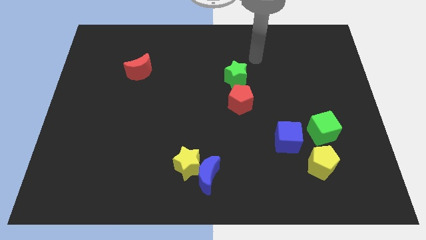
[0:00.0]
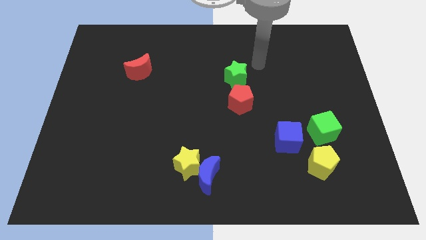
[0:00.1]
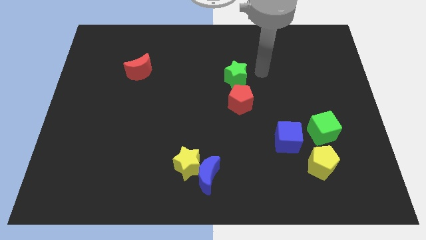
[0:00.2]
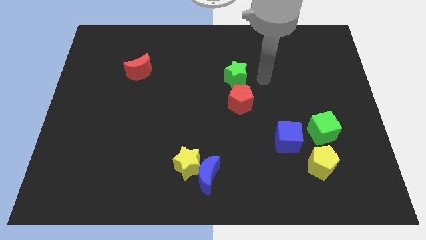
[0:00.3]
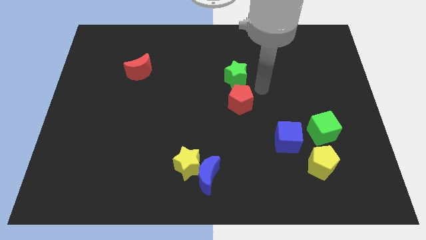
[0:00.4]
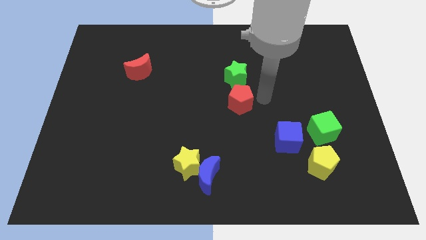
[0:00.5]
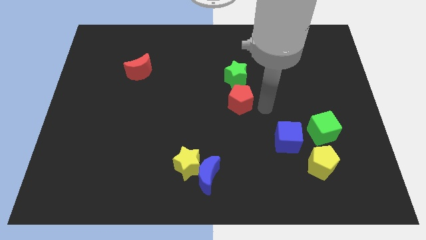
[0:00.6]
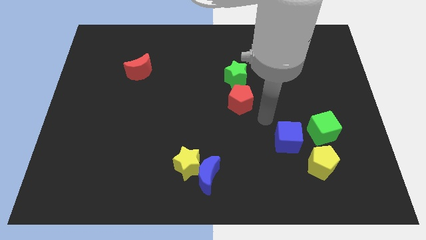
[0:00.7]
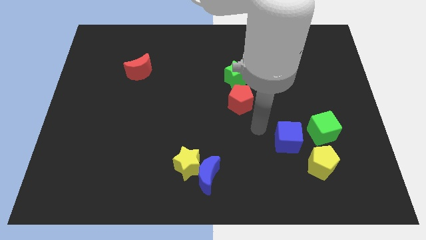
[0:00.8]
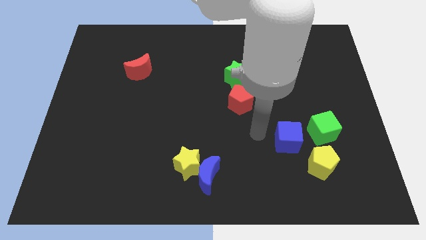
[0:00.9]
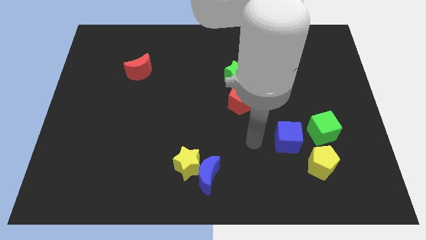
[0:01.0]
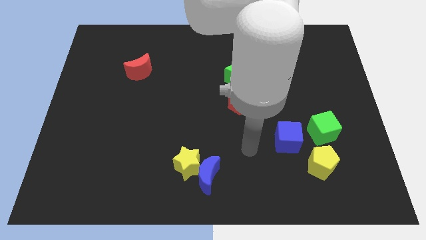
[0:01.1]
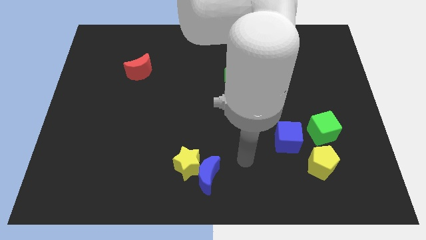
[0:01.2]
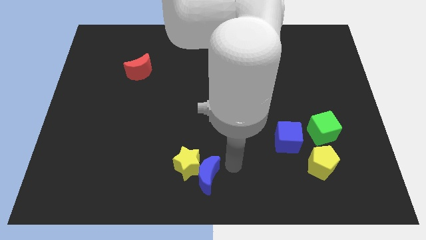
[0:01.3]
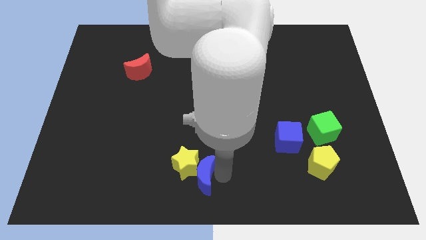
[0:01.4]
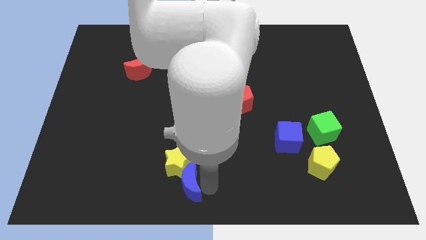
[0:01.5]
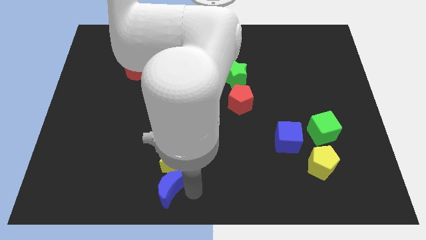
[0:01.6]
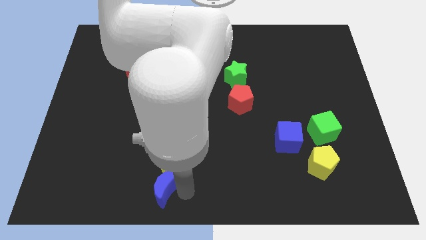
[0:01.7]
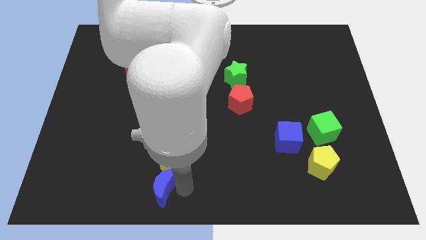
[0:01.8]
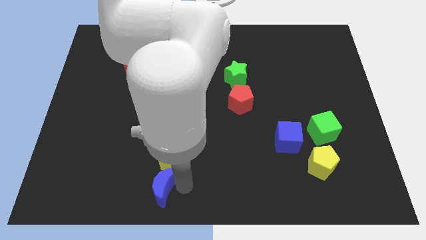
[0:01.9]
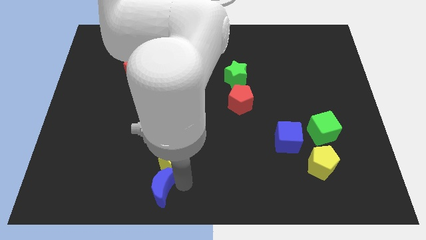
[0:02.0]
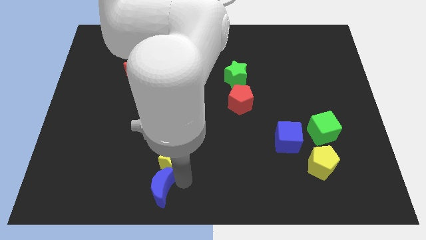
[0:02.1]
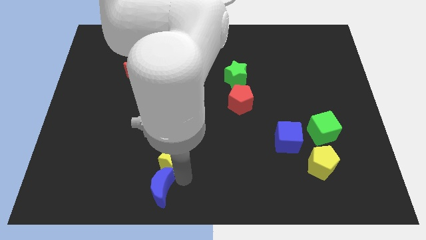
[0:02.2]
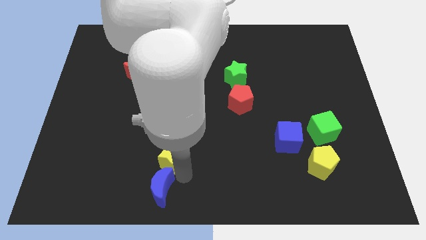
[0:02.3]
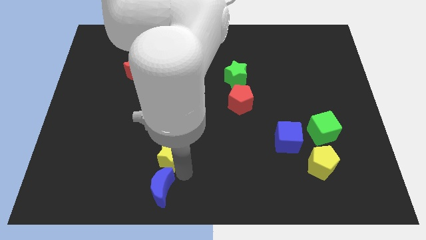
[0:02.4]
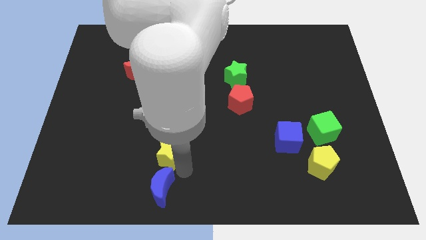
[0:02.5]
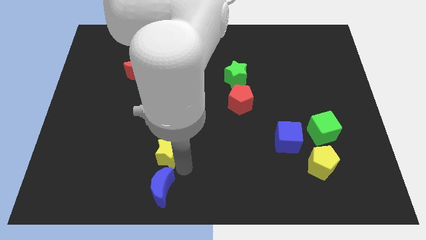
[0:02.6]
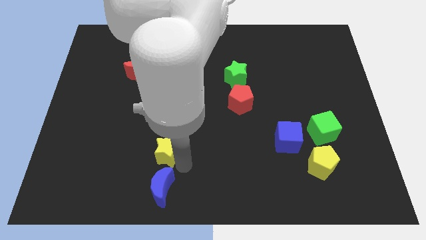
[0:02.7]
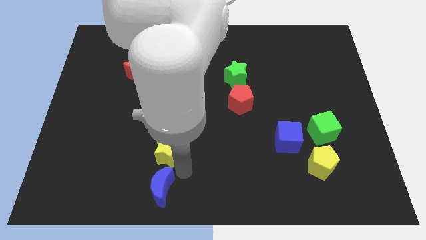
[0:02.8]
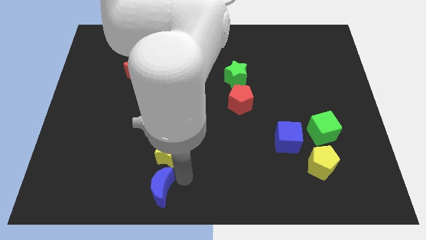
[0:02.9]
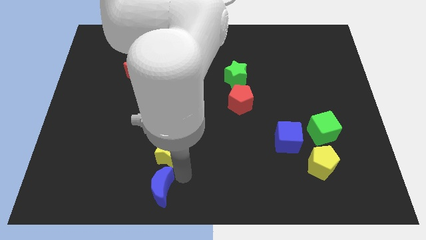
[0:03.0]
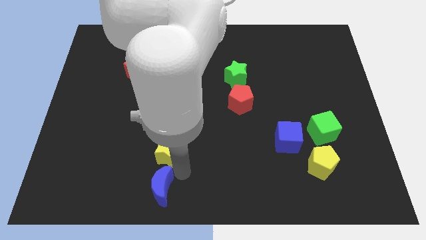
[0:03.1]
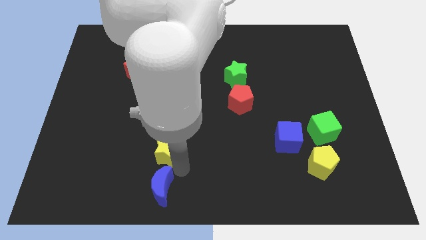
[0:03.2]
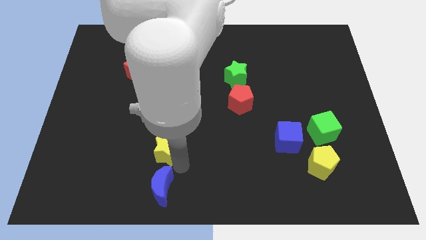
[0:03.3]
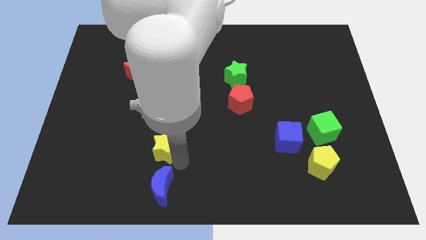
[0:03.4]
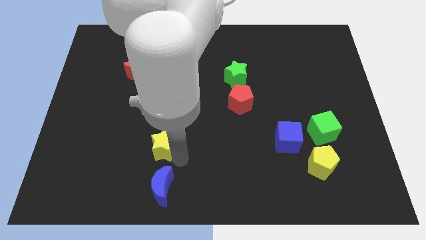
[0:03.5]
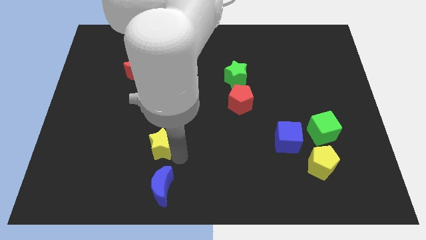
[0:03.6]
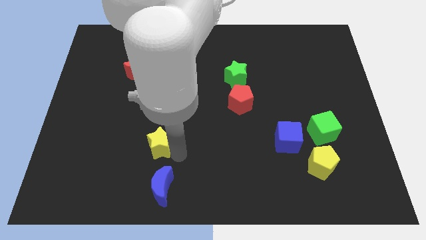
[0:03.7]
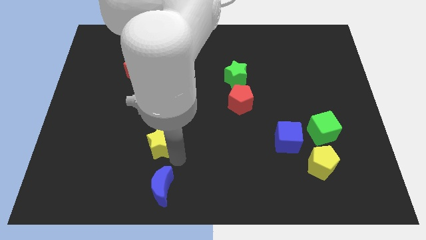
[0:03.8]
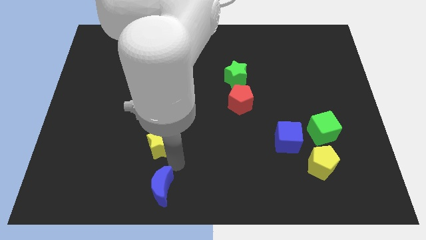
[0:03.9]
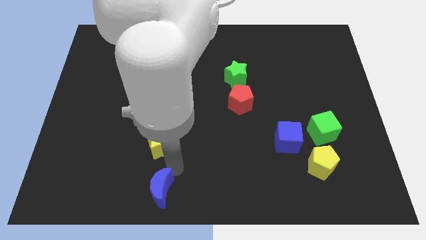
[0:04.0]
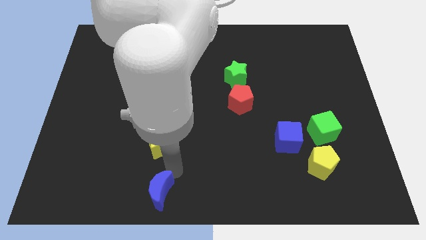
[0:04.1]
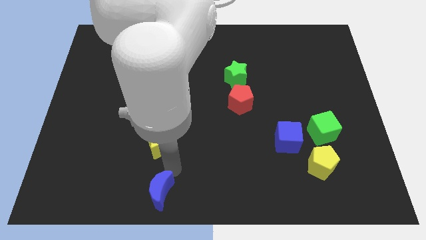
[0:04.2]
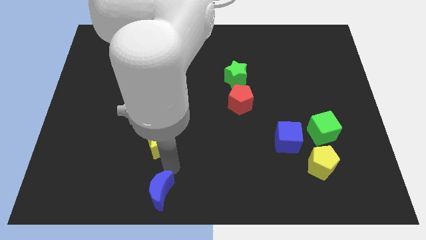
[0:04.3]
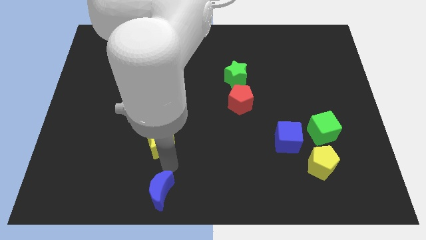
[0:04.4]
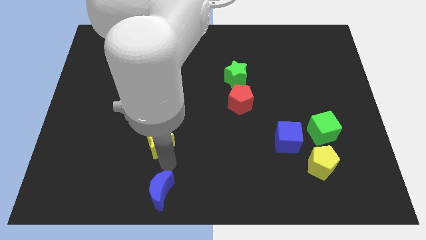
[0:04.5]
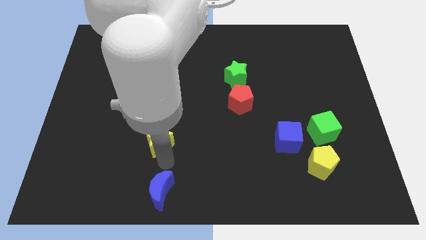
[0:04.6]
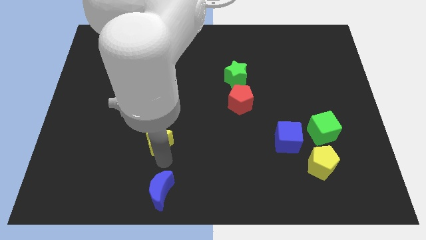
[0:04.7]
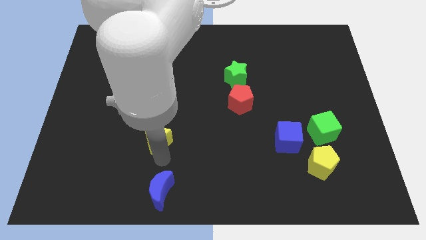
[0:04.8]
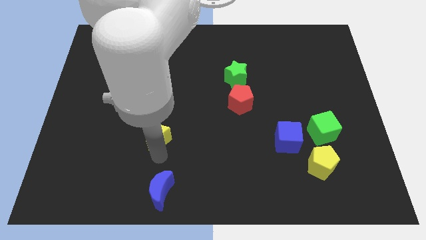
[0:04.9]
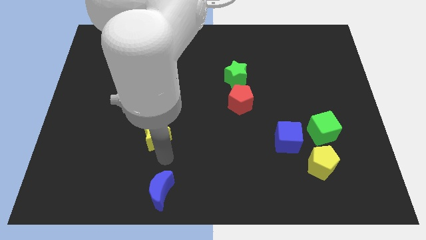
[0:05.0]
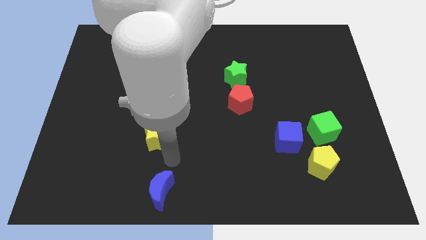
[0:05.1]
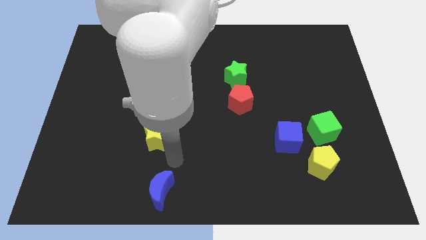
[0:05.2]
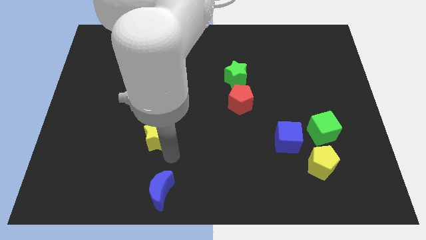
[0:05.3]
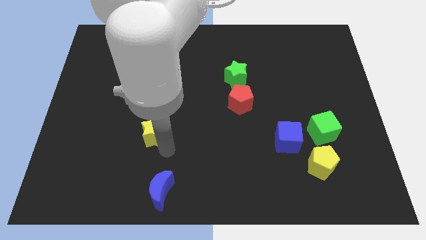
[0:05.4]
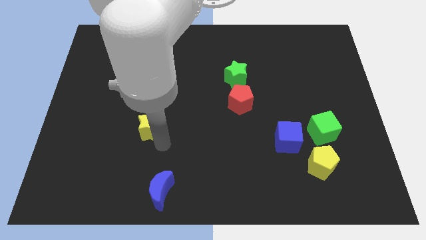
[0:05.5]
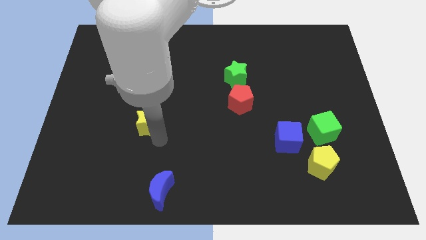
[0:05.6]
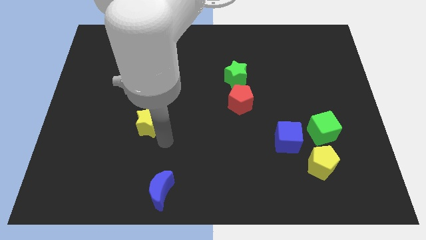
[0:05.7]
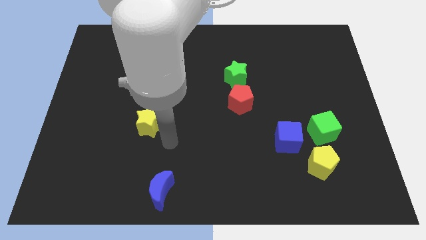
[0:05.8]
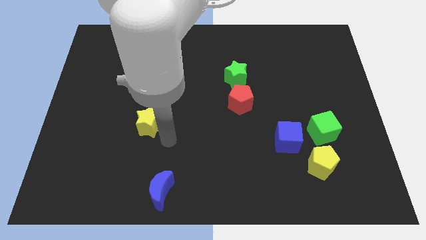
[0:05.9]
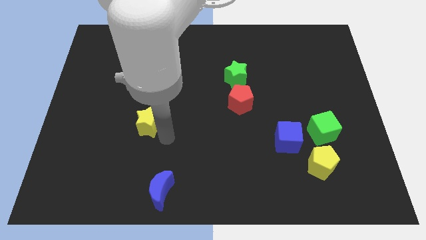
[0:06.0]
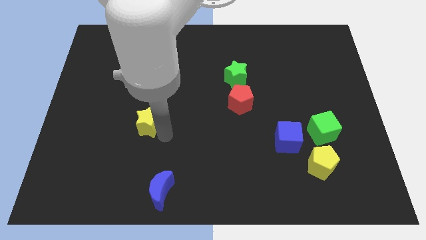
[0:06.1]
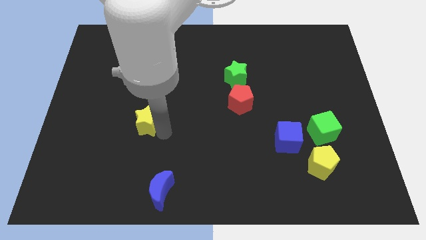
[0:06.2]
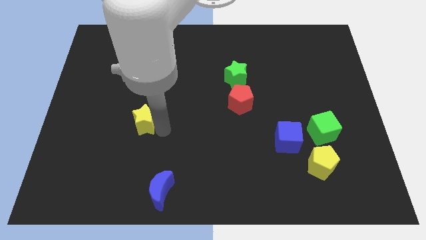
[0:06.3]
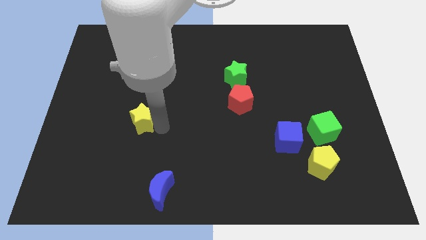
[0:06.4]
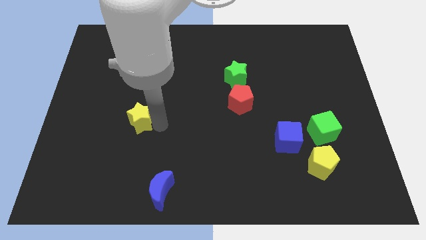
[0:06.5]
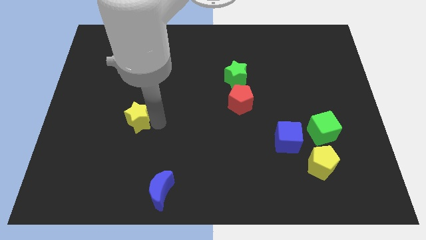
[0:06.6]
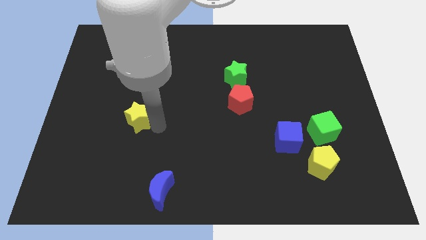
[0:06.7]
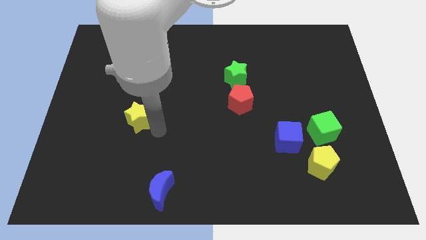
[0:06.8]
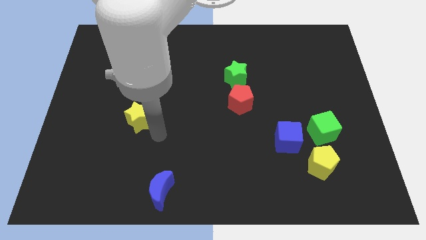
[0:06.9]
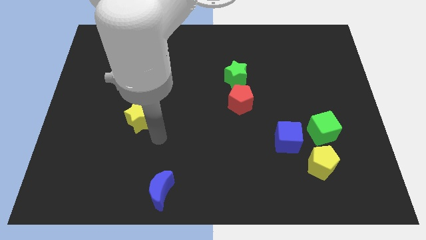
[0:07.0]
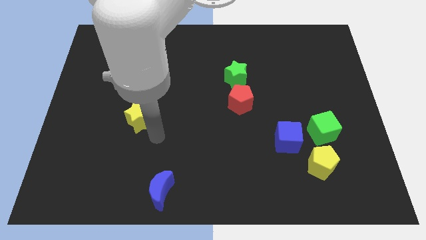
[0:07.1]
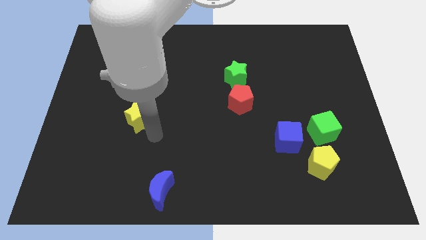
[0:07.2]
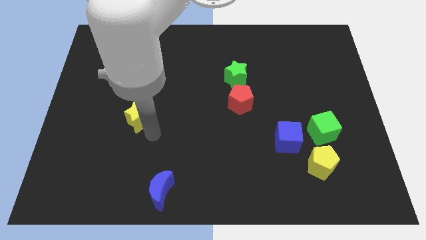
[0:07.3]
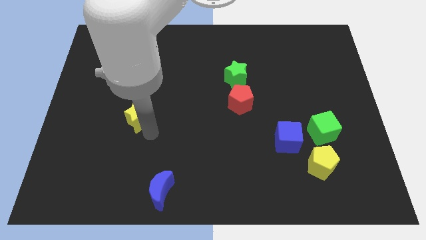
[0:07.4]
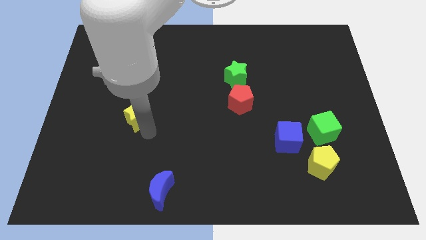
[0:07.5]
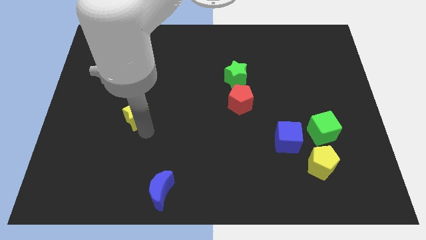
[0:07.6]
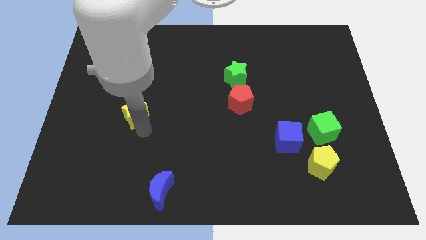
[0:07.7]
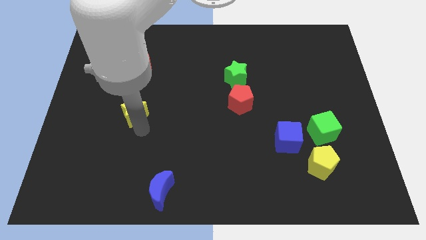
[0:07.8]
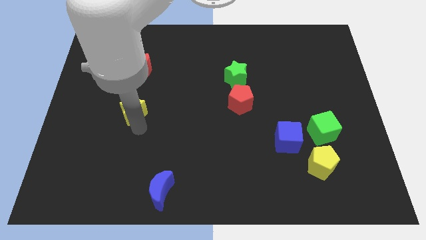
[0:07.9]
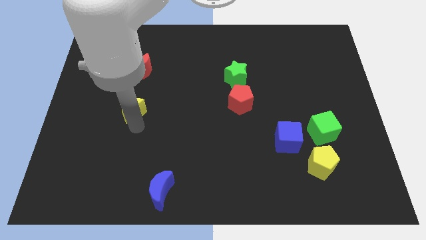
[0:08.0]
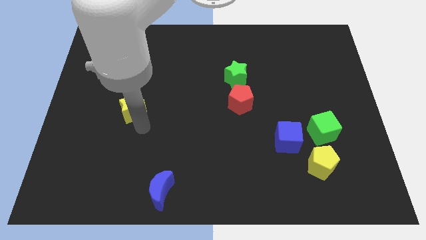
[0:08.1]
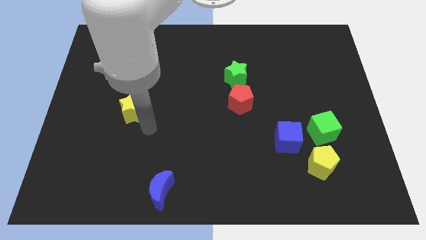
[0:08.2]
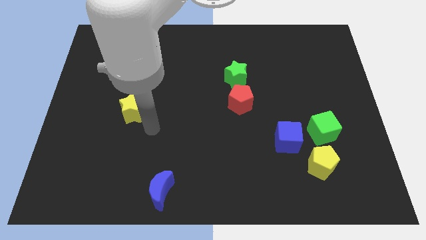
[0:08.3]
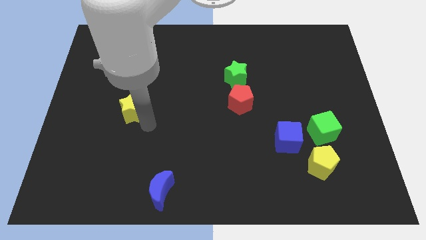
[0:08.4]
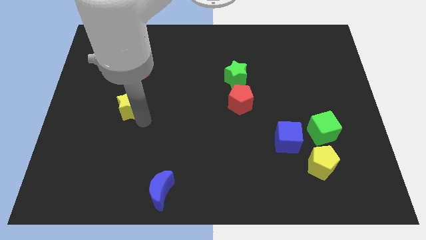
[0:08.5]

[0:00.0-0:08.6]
move the yellow star up and then left
